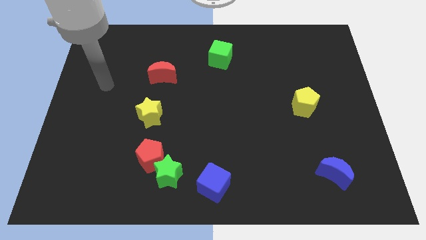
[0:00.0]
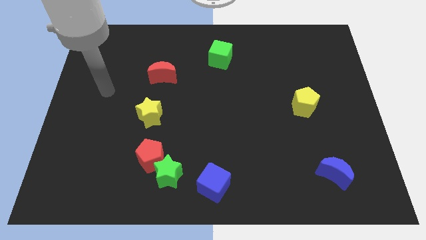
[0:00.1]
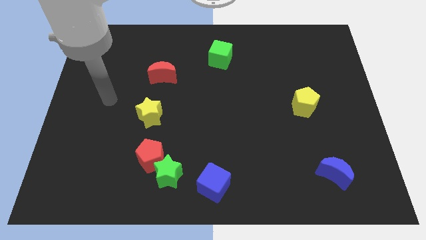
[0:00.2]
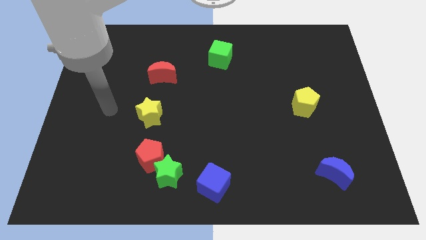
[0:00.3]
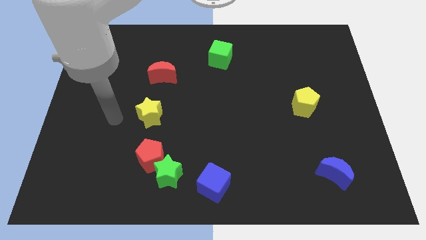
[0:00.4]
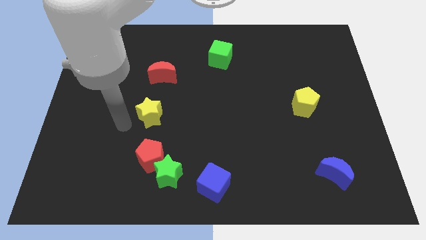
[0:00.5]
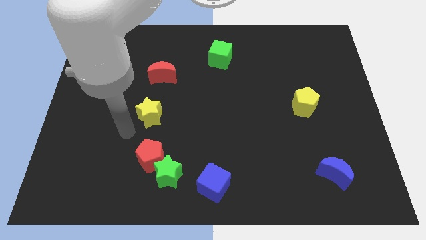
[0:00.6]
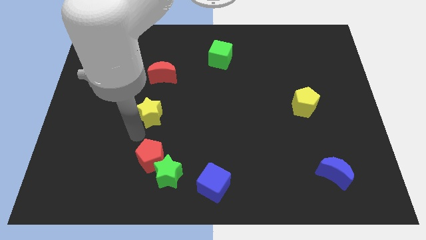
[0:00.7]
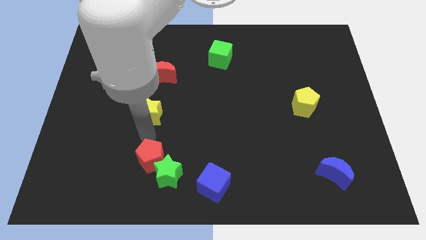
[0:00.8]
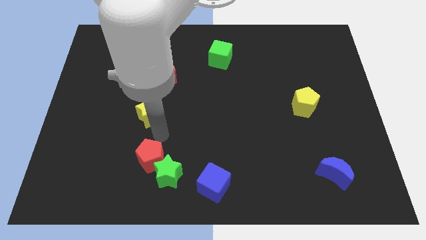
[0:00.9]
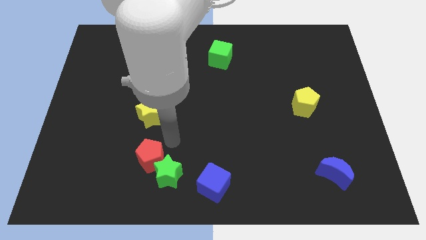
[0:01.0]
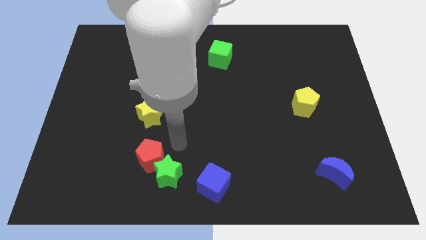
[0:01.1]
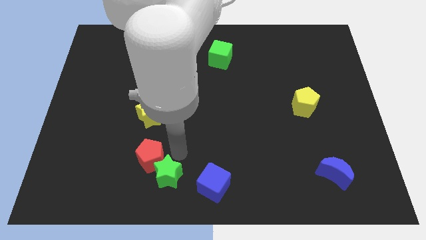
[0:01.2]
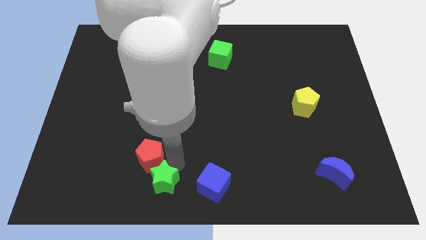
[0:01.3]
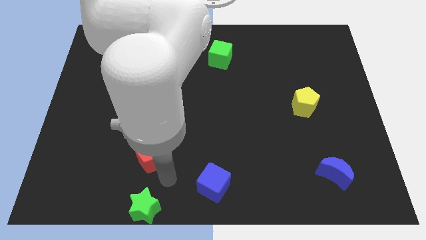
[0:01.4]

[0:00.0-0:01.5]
separate the red pentagon from the green star

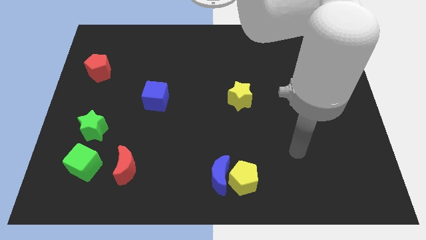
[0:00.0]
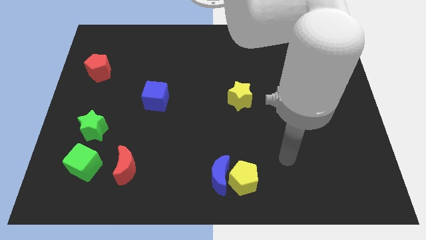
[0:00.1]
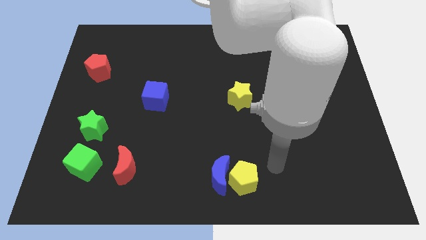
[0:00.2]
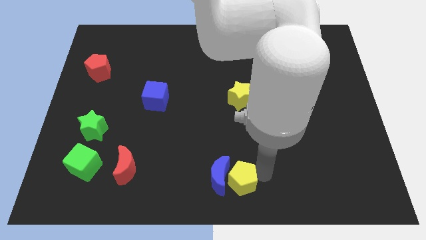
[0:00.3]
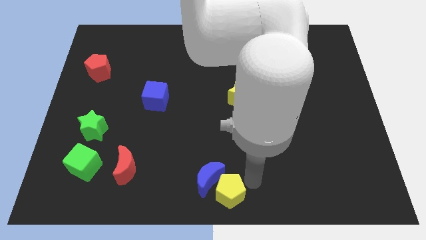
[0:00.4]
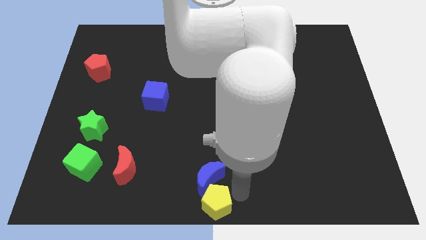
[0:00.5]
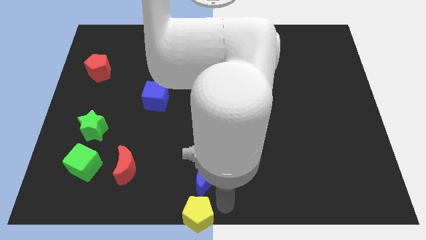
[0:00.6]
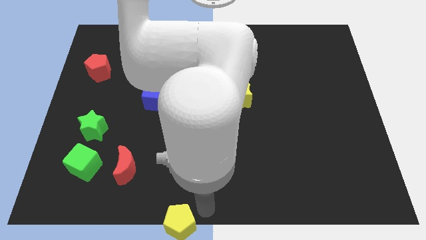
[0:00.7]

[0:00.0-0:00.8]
separate the blue moon from the yellow pentagon

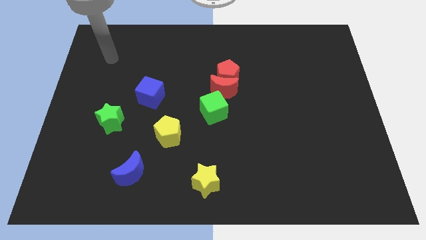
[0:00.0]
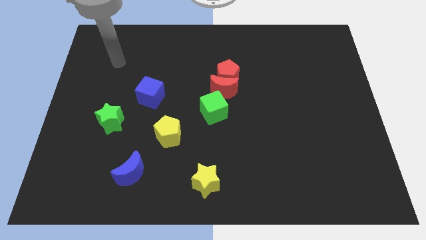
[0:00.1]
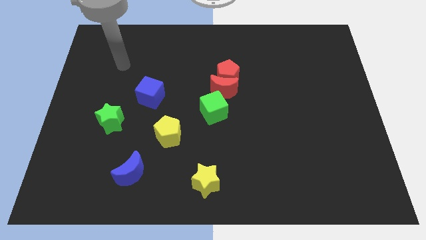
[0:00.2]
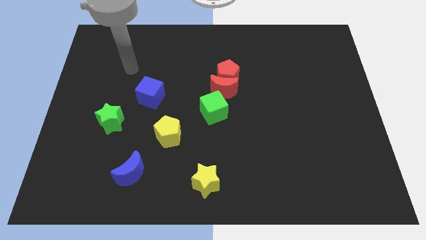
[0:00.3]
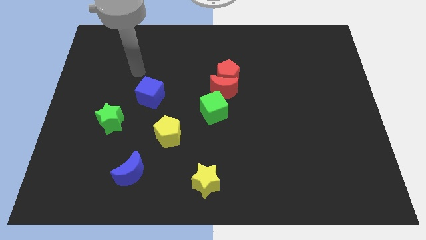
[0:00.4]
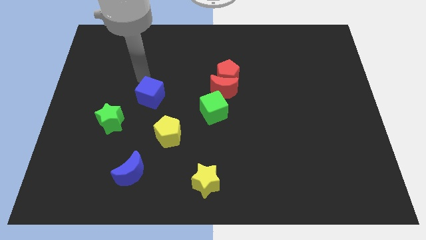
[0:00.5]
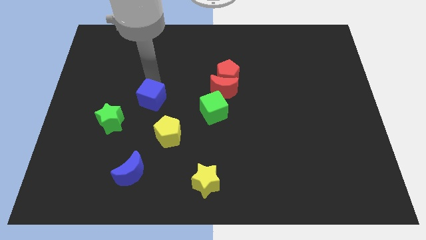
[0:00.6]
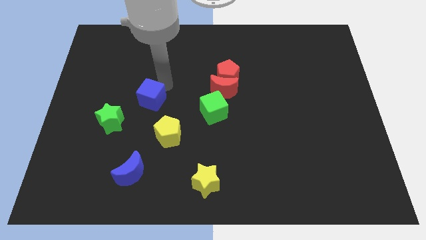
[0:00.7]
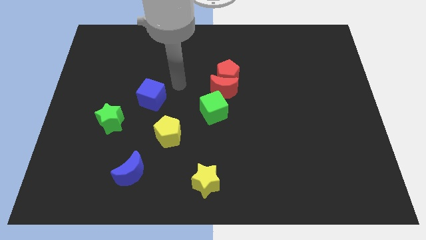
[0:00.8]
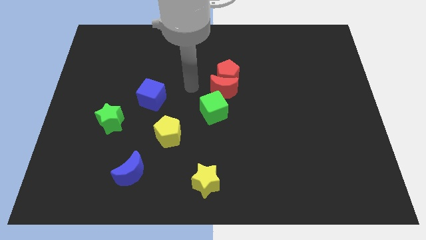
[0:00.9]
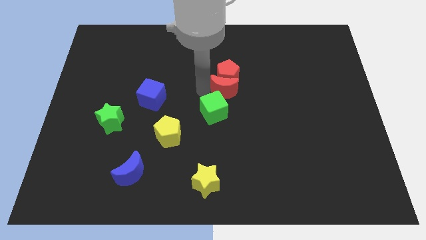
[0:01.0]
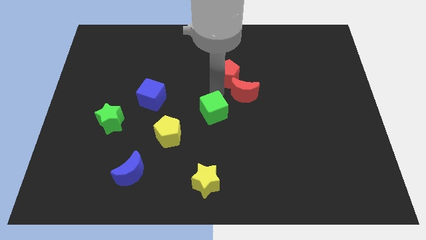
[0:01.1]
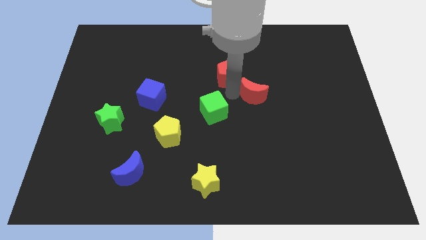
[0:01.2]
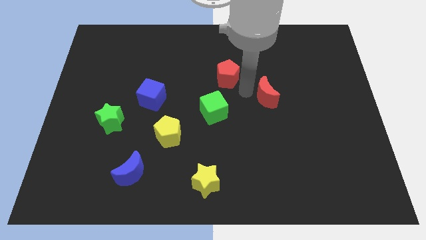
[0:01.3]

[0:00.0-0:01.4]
pull the red pentagon apart from the red moon

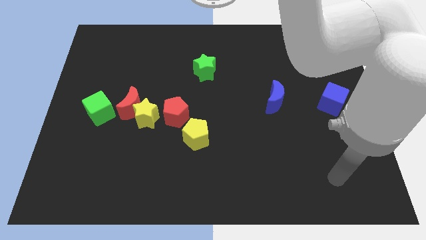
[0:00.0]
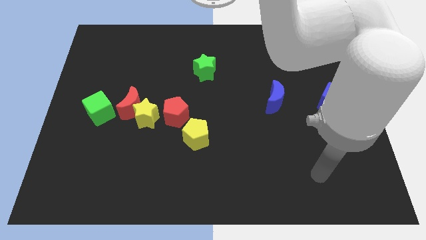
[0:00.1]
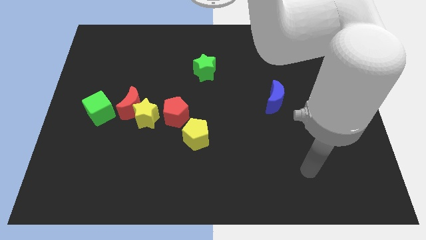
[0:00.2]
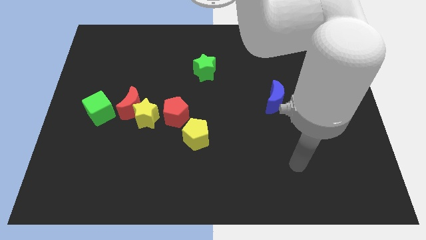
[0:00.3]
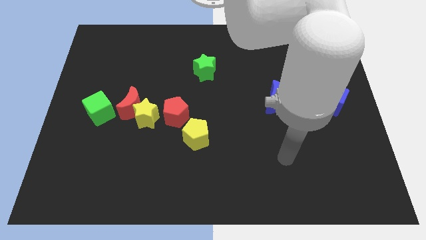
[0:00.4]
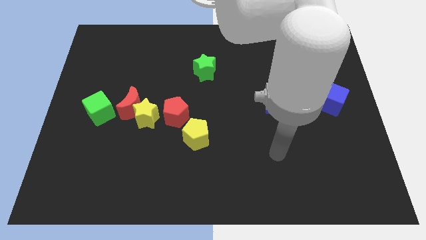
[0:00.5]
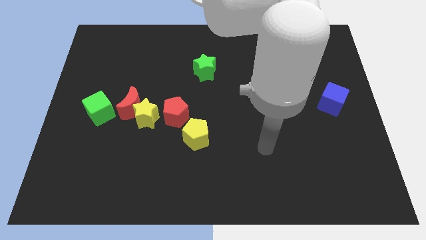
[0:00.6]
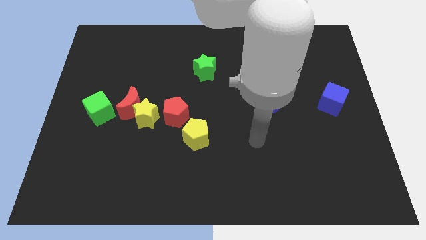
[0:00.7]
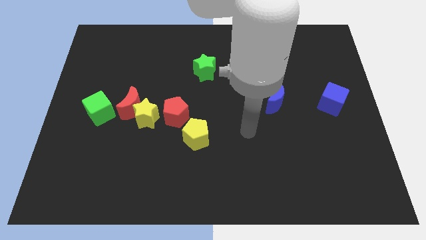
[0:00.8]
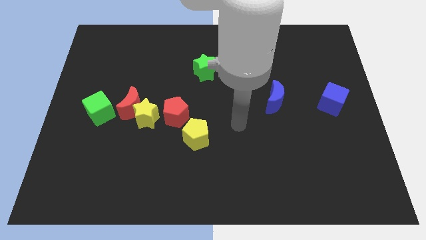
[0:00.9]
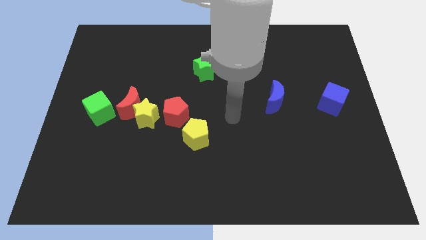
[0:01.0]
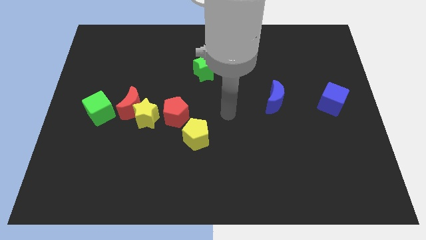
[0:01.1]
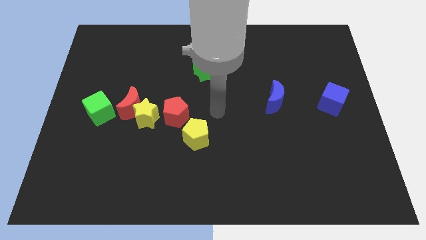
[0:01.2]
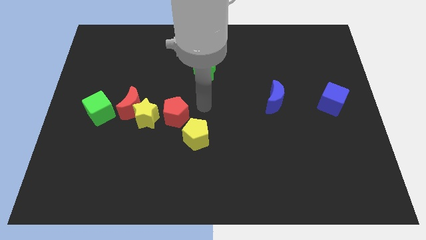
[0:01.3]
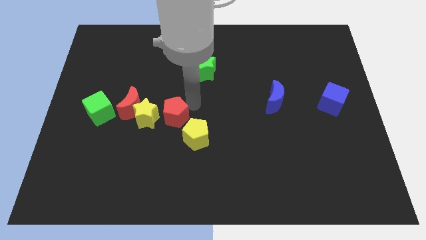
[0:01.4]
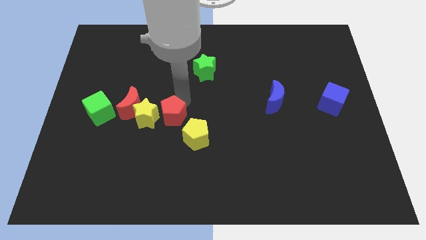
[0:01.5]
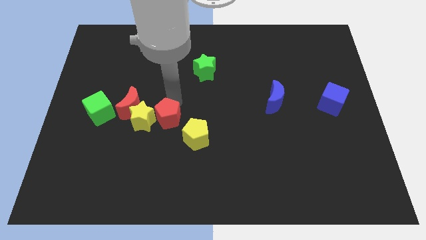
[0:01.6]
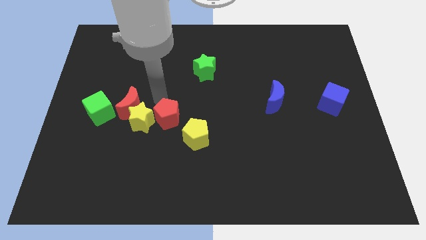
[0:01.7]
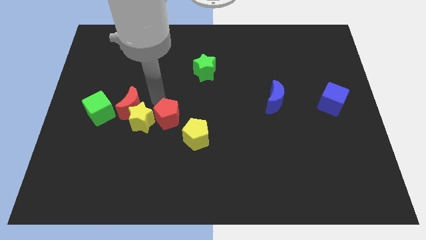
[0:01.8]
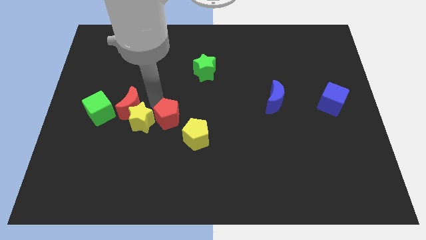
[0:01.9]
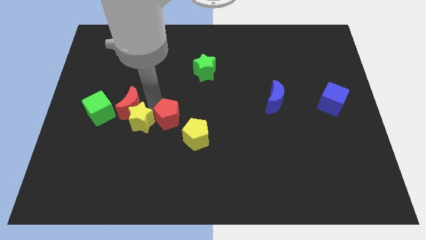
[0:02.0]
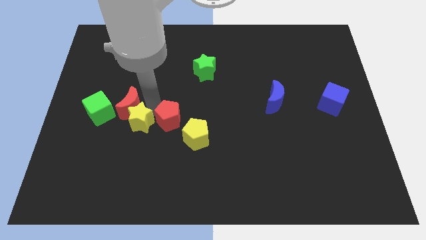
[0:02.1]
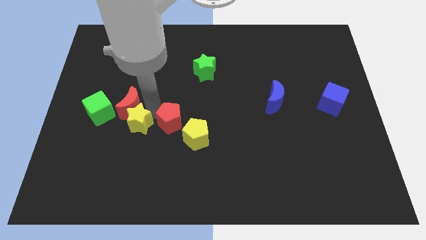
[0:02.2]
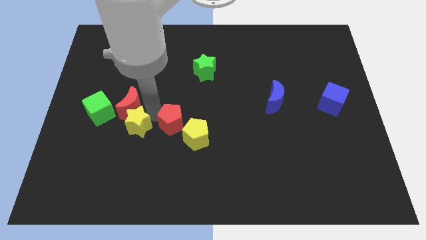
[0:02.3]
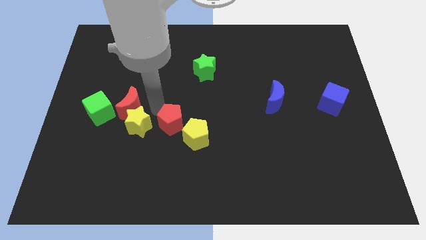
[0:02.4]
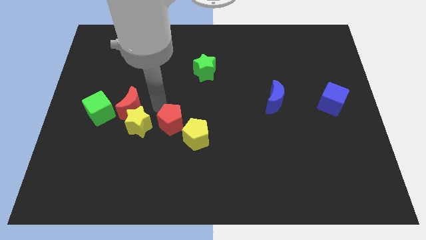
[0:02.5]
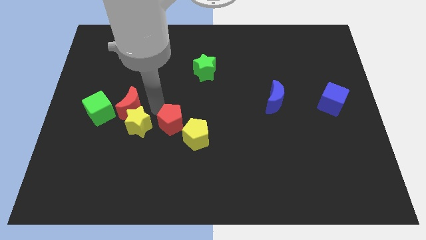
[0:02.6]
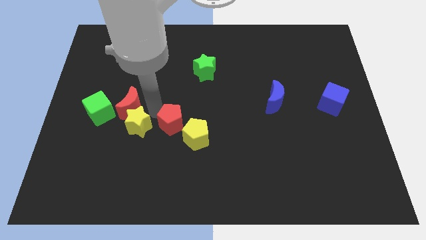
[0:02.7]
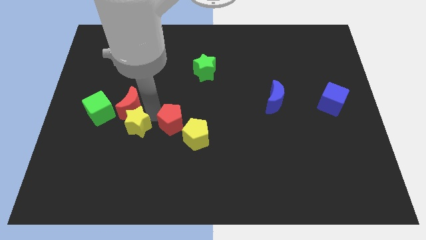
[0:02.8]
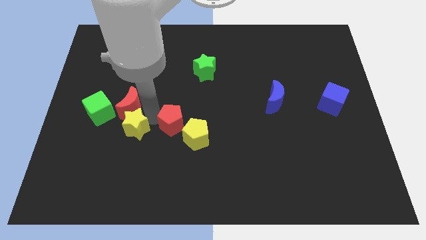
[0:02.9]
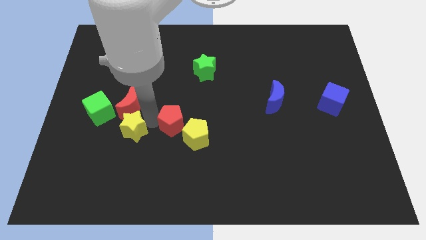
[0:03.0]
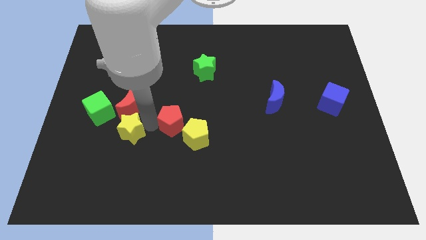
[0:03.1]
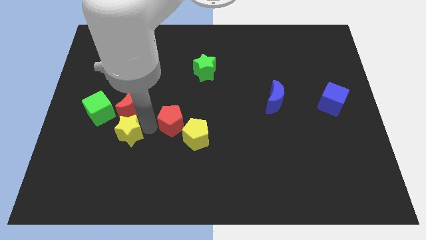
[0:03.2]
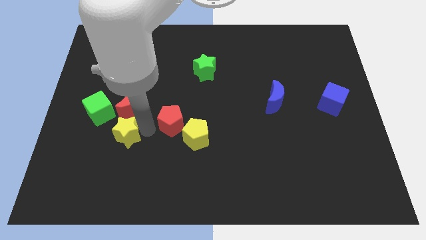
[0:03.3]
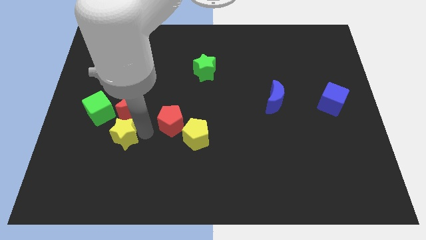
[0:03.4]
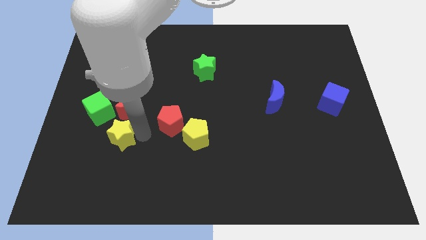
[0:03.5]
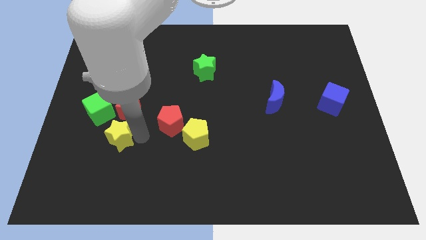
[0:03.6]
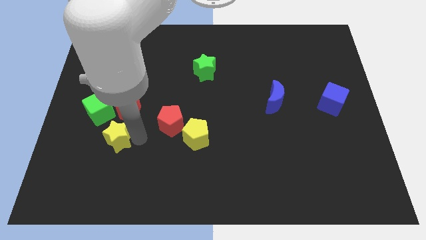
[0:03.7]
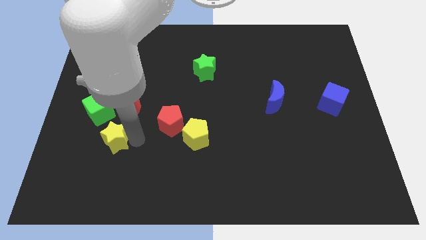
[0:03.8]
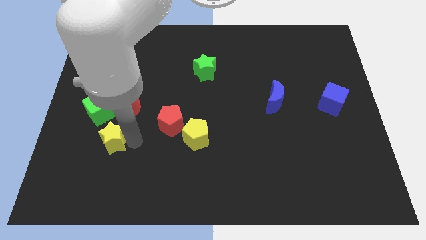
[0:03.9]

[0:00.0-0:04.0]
move the yellow star away from the red moon and red pentagon

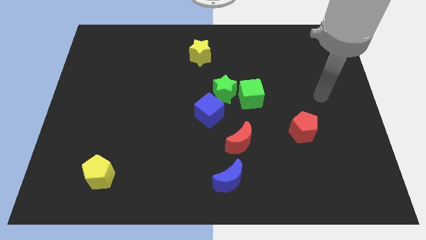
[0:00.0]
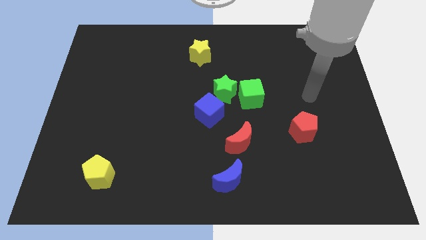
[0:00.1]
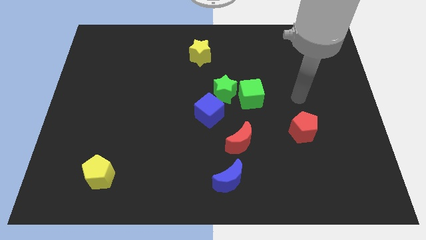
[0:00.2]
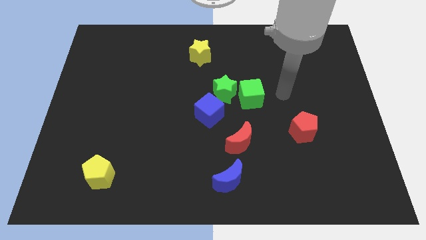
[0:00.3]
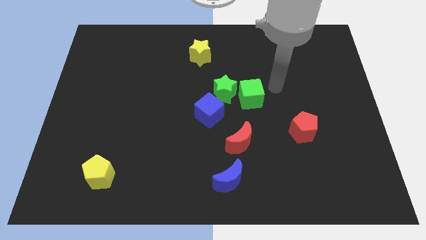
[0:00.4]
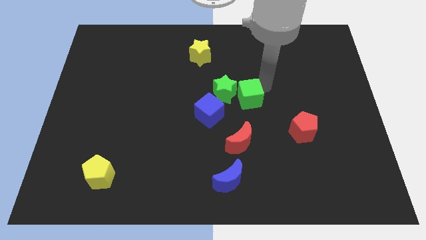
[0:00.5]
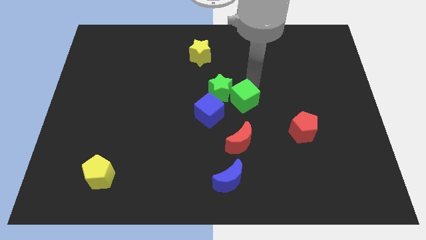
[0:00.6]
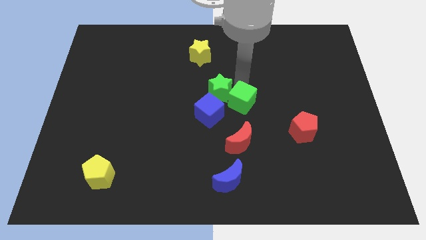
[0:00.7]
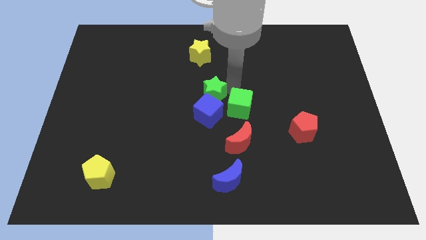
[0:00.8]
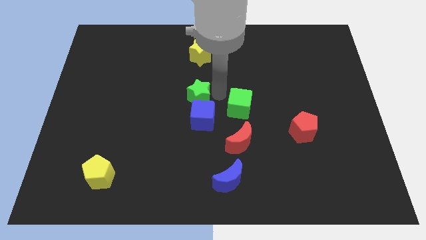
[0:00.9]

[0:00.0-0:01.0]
move the green cube away from the green star

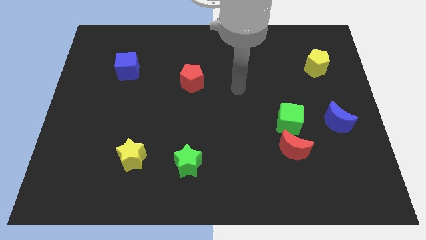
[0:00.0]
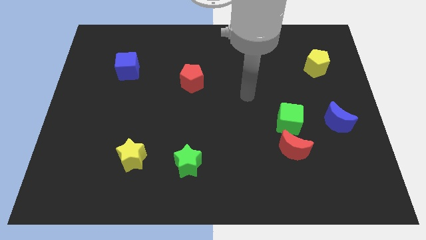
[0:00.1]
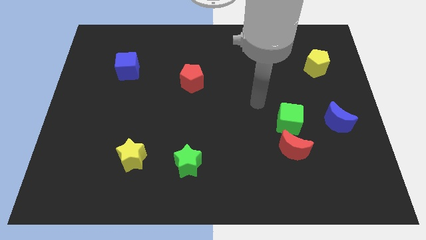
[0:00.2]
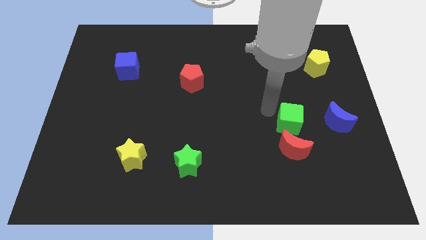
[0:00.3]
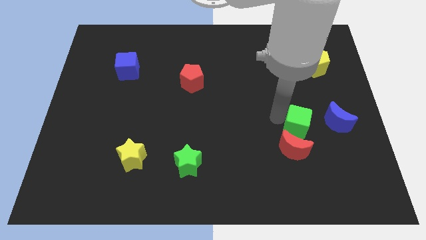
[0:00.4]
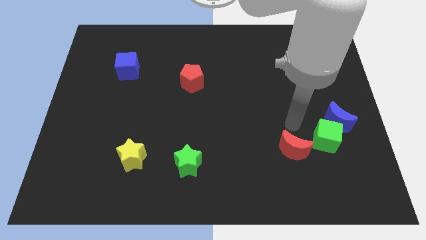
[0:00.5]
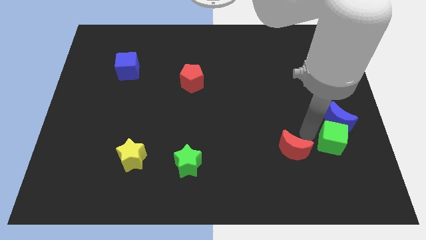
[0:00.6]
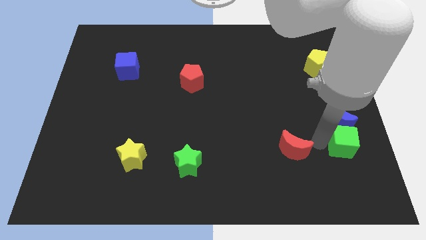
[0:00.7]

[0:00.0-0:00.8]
move the red moon away from the green cube
